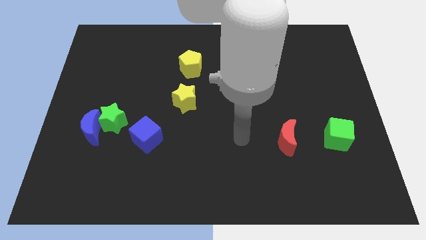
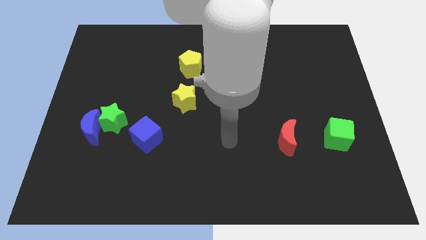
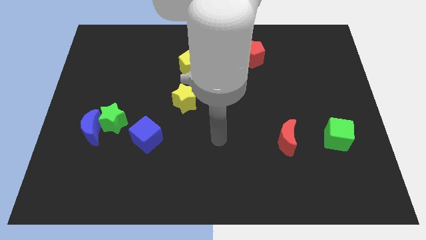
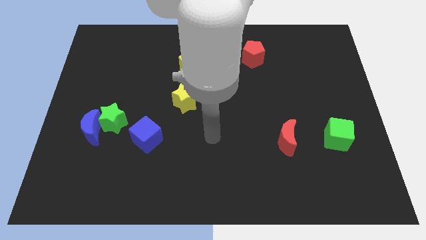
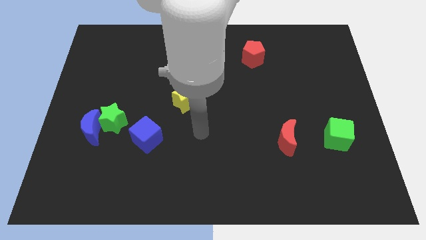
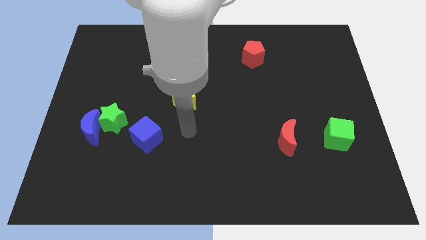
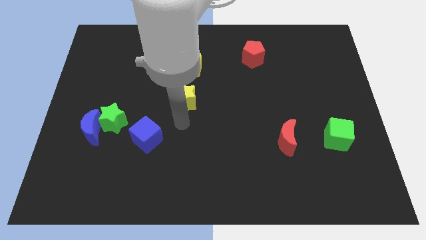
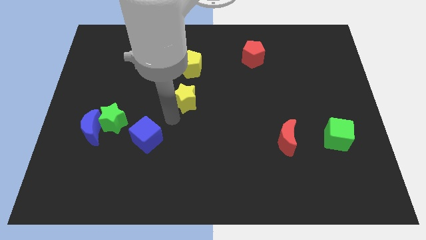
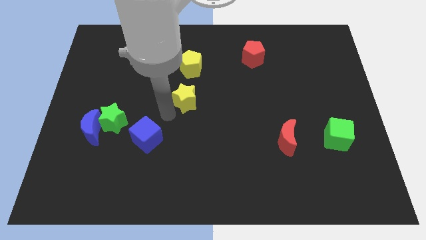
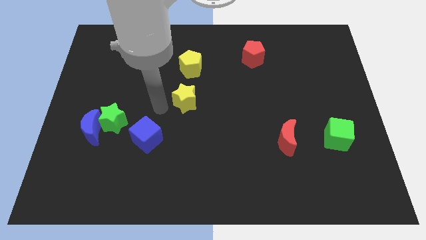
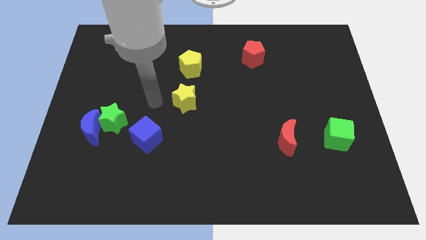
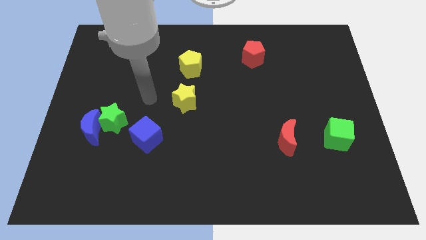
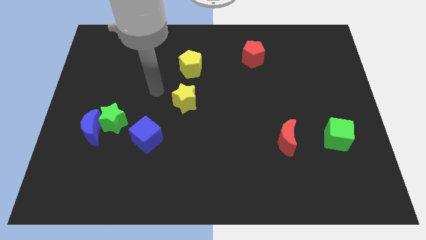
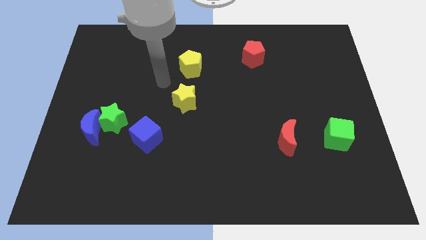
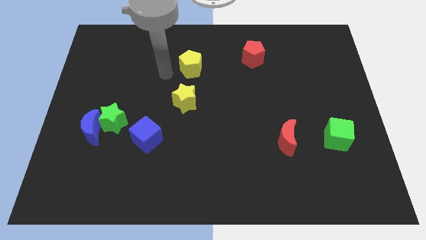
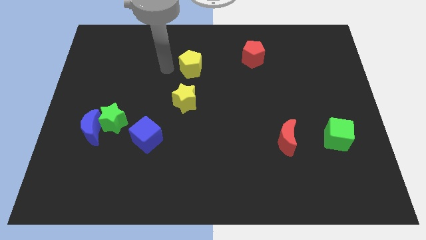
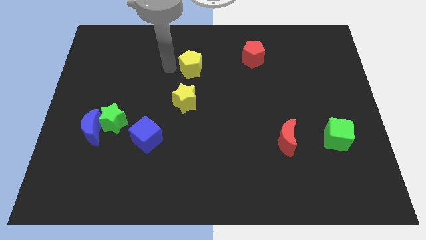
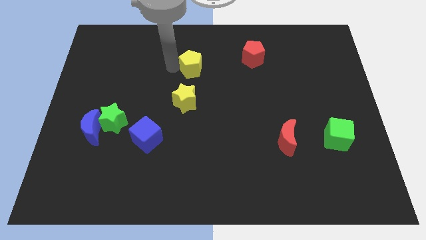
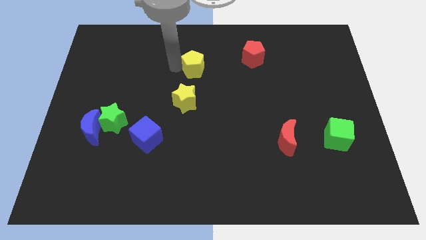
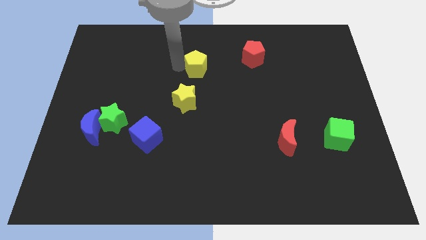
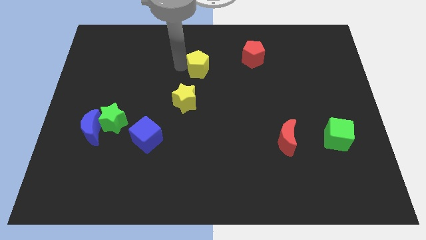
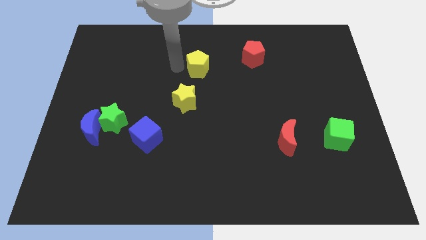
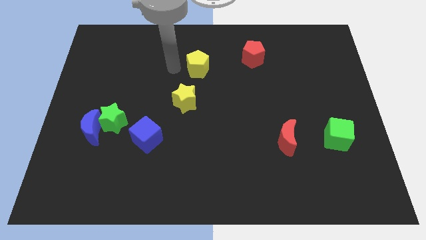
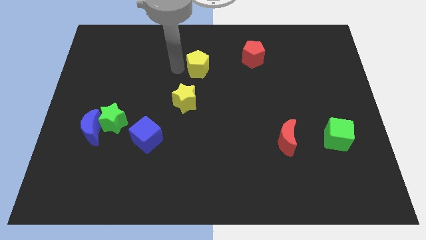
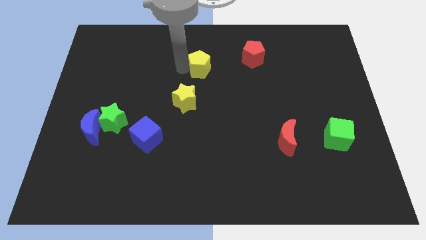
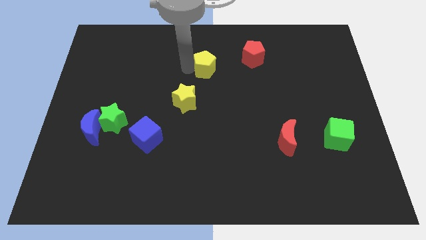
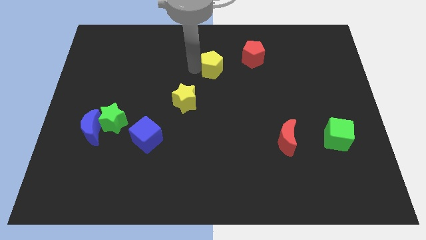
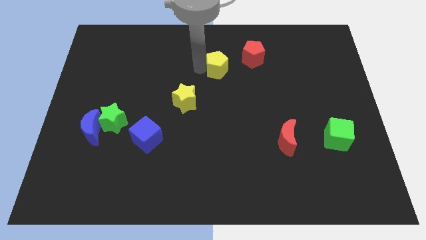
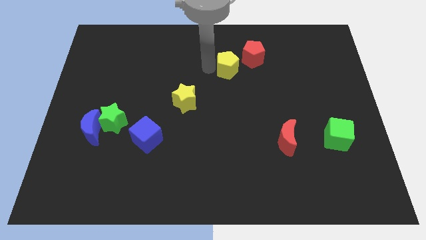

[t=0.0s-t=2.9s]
push the yellow pentagon right slightly

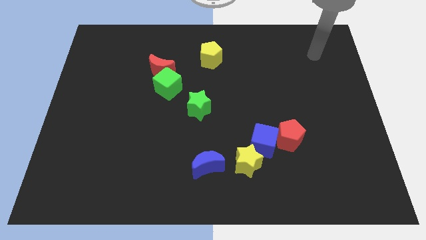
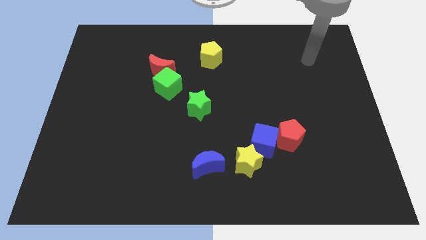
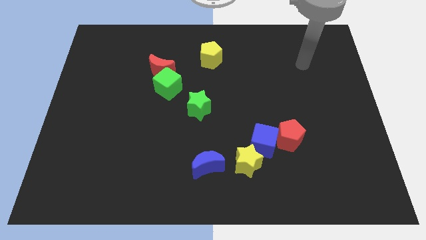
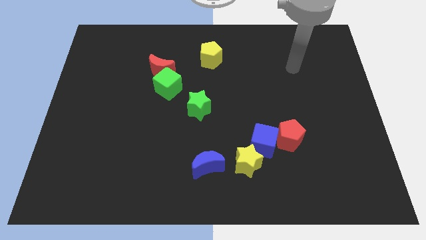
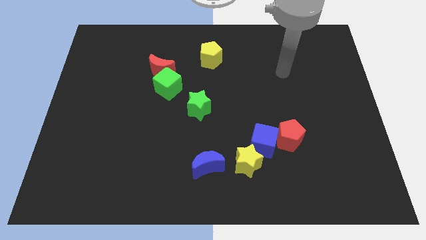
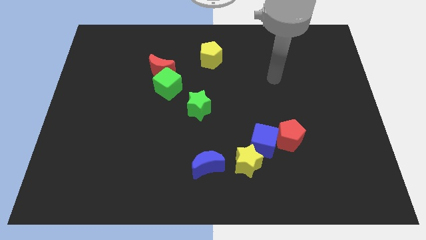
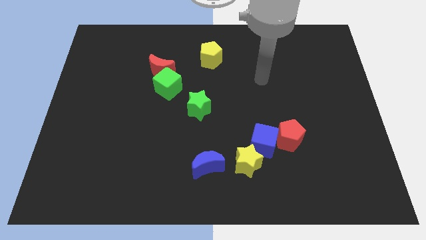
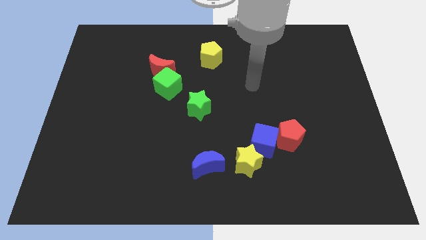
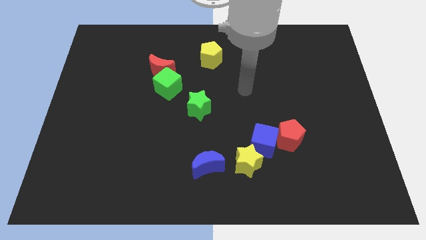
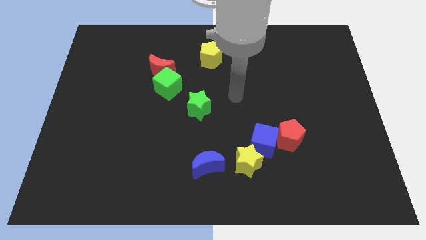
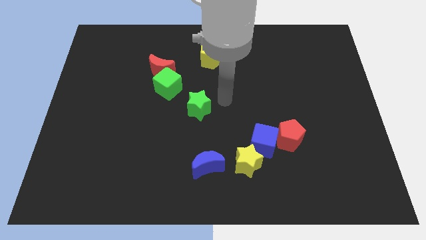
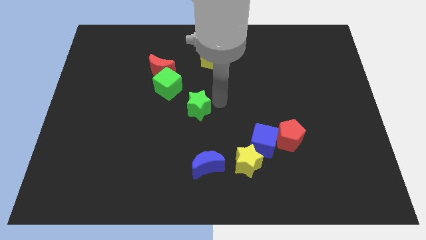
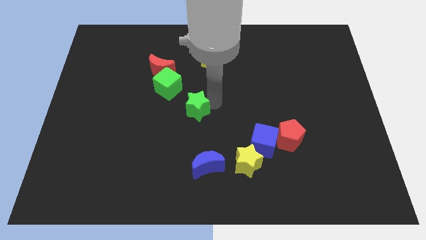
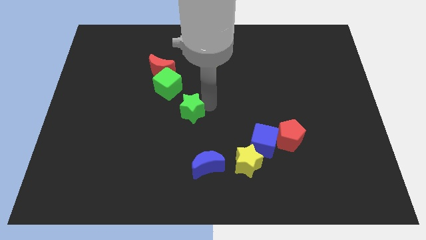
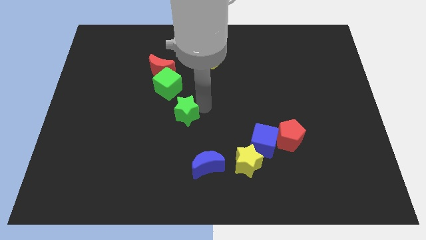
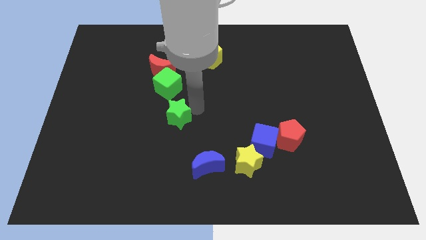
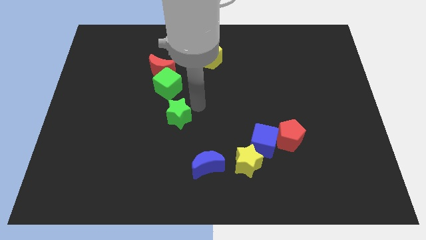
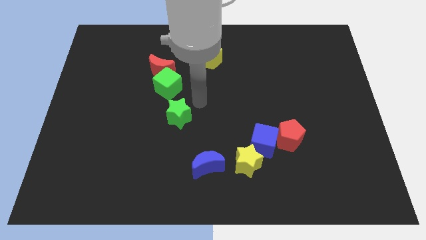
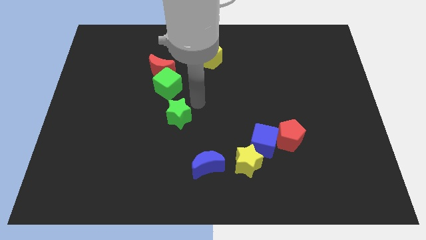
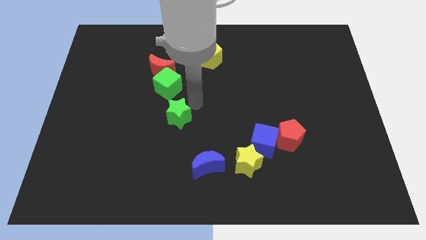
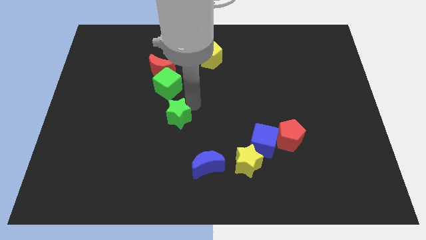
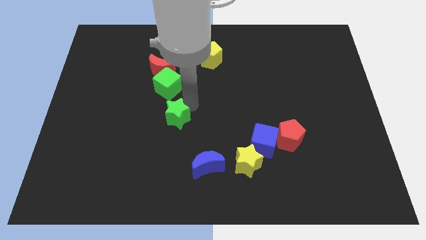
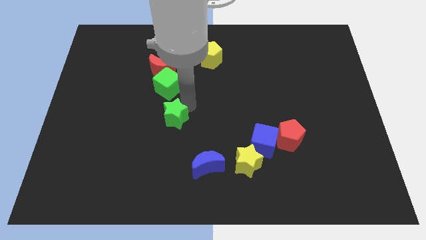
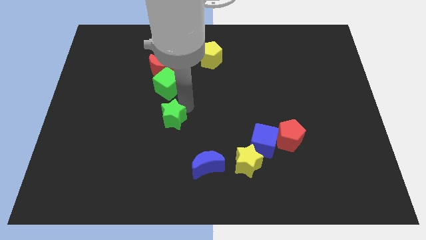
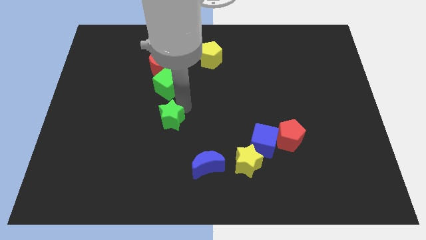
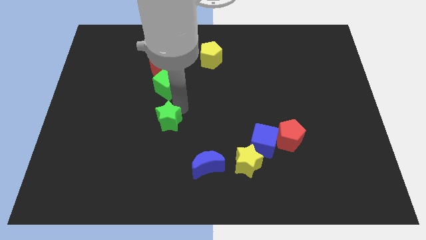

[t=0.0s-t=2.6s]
slide the green star slightly diagonally down and left

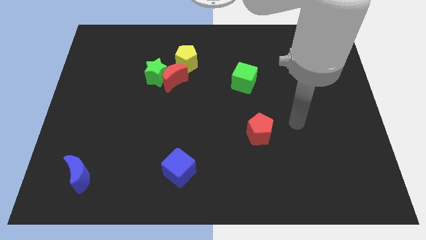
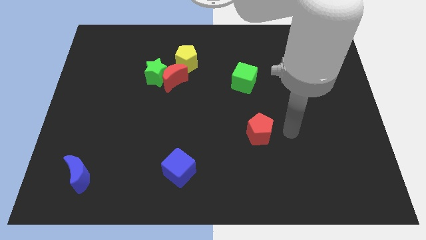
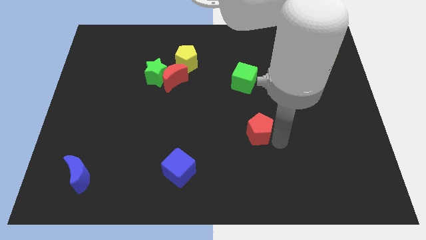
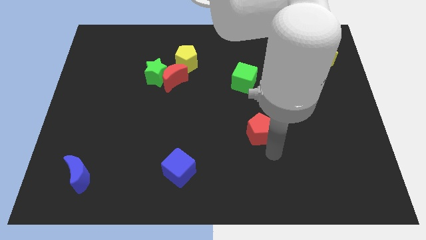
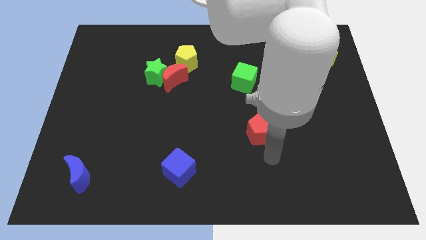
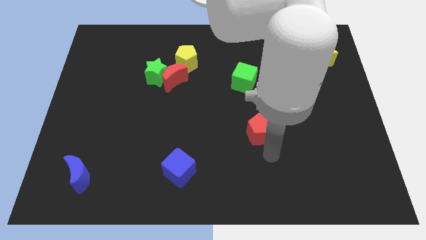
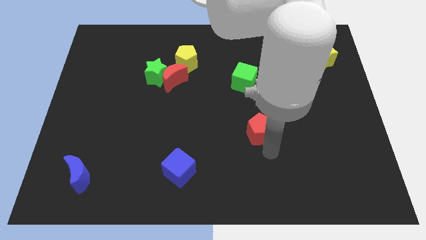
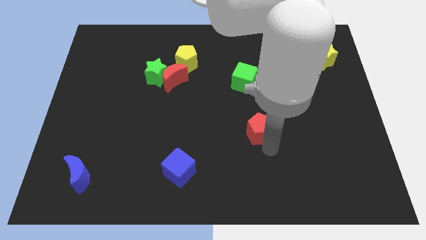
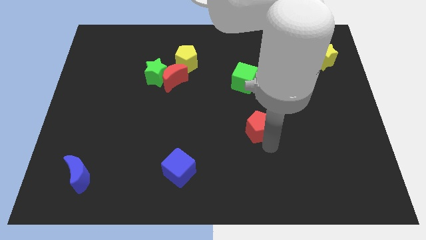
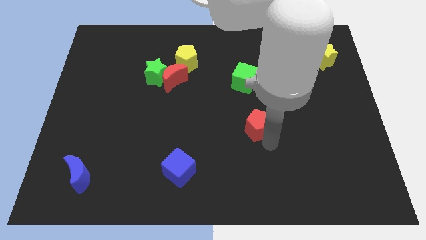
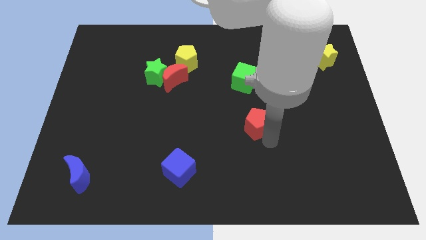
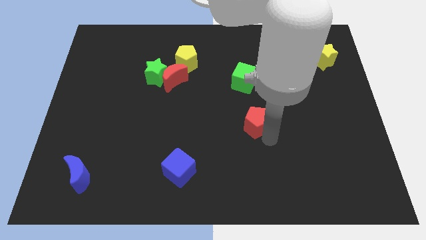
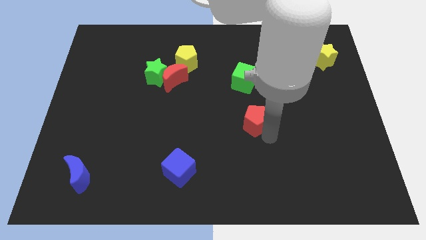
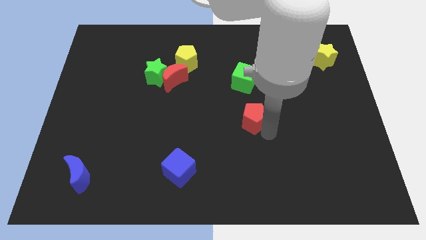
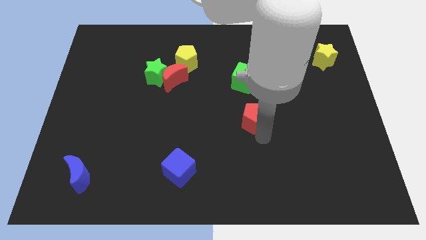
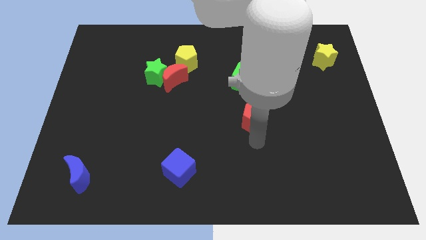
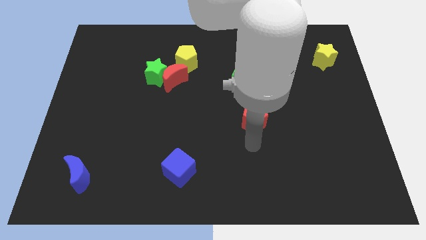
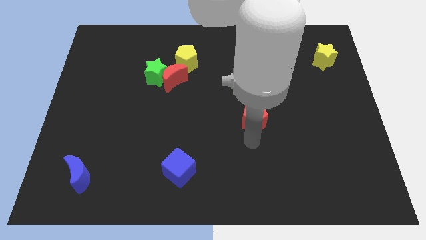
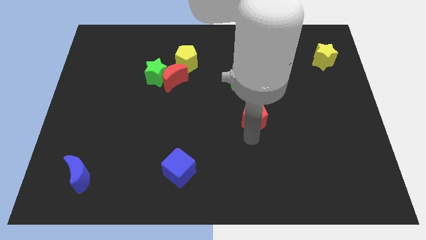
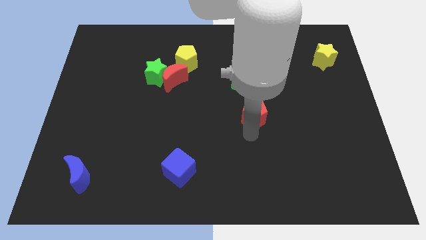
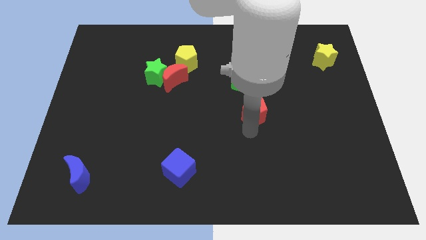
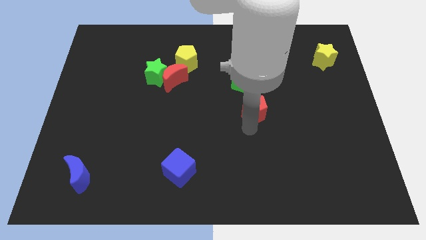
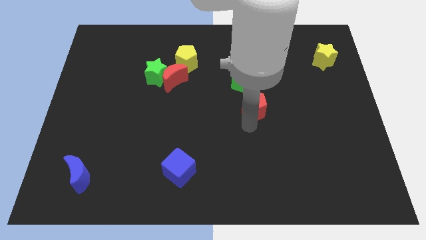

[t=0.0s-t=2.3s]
slightly slide the red pentagon upwards

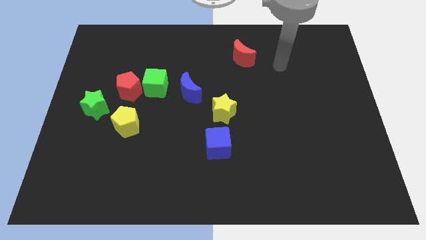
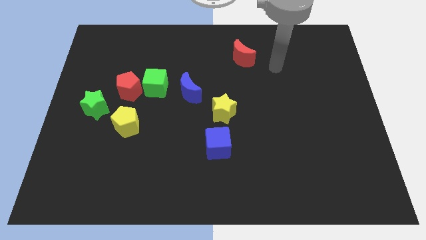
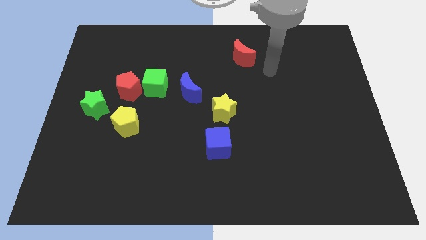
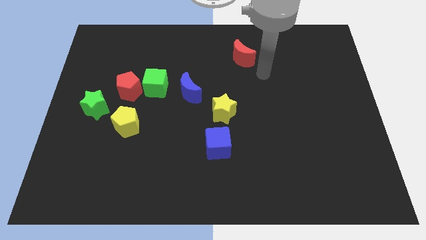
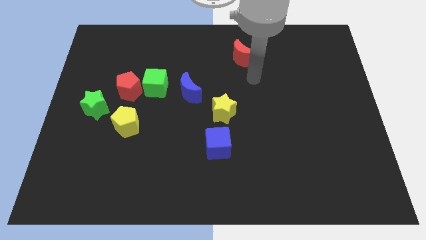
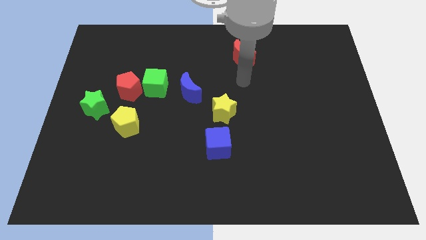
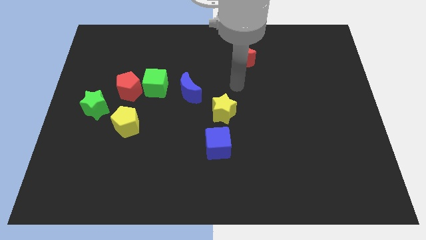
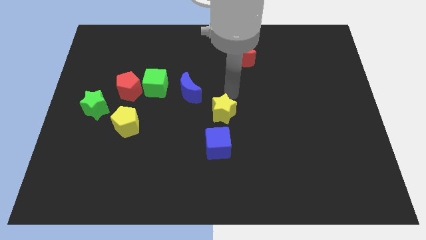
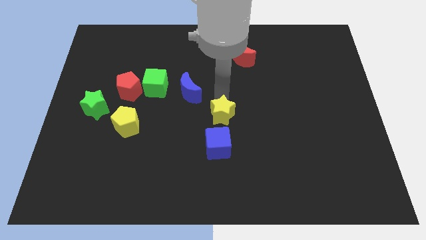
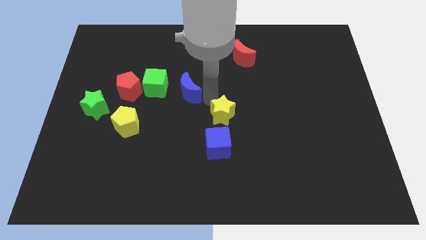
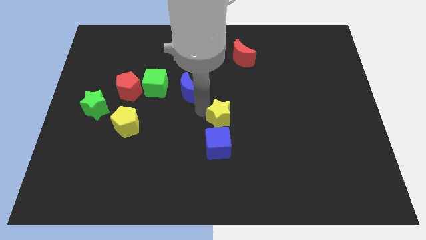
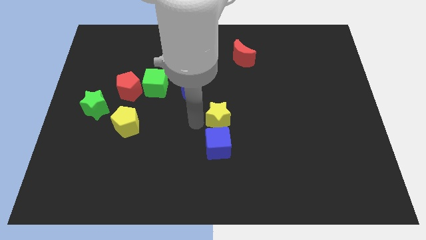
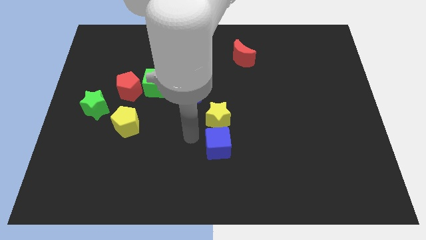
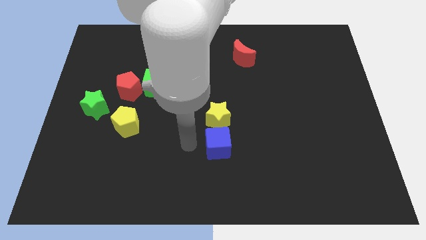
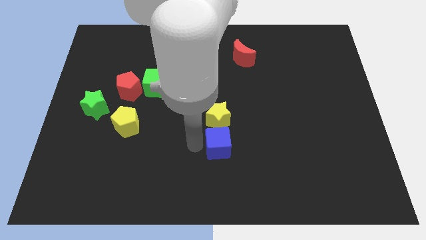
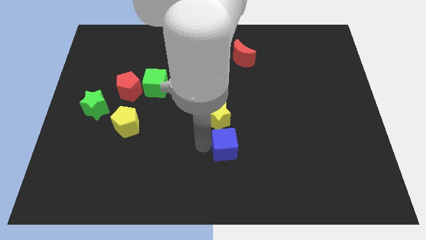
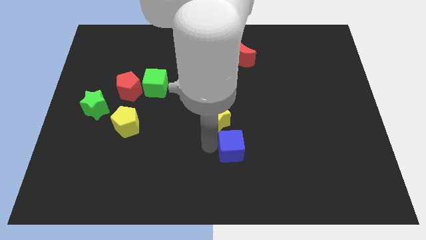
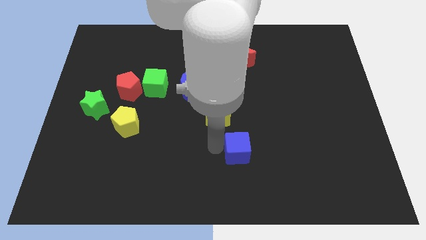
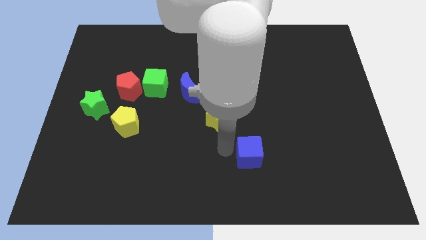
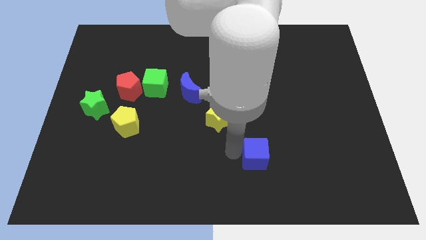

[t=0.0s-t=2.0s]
push the blue cube right a little bit
